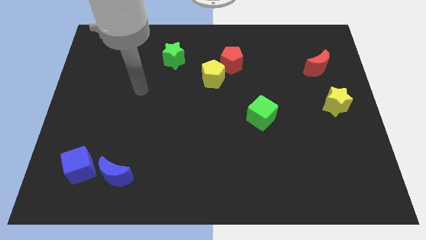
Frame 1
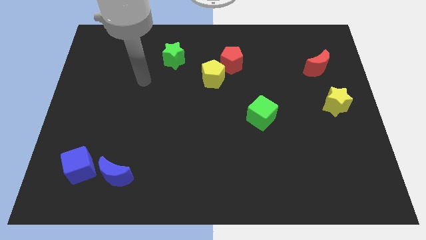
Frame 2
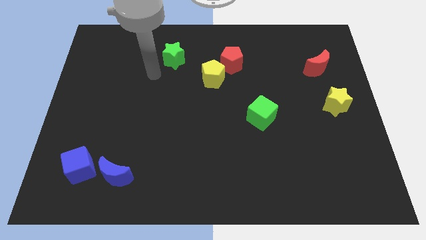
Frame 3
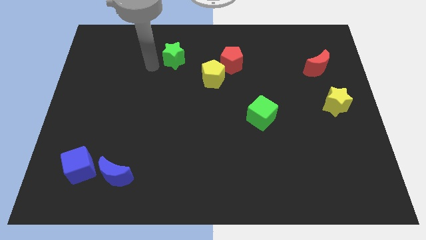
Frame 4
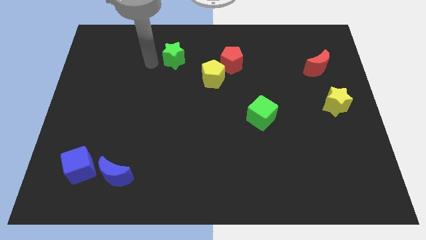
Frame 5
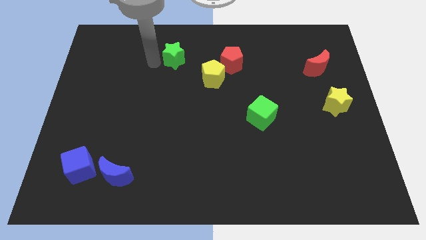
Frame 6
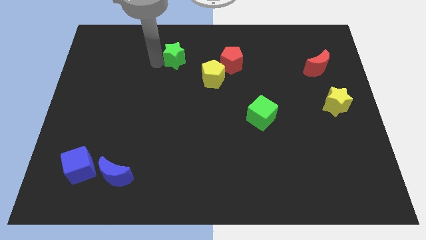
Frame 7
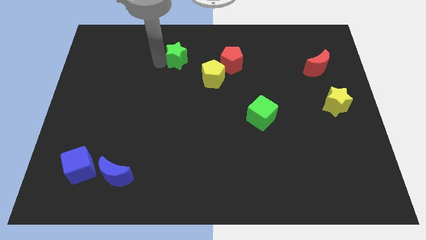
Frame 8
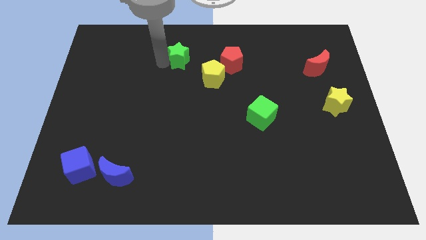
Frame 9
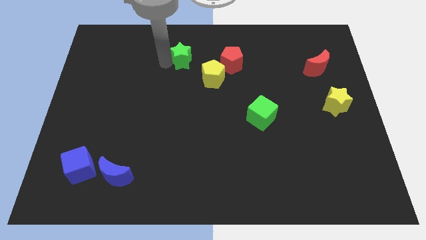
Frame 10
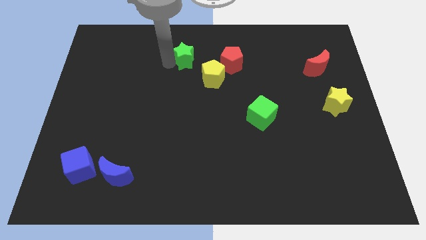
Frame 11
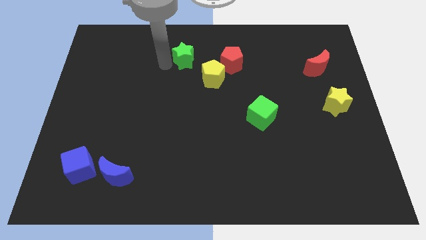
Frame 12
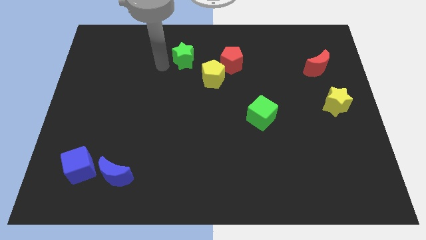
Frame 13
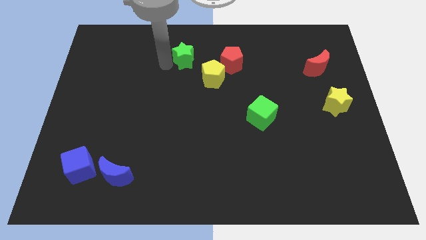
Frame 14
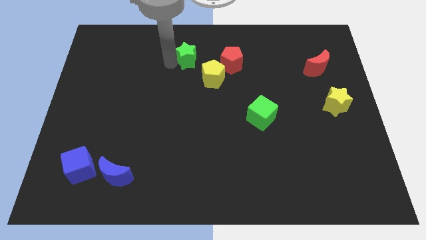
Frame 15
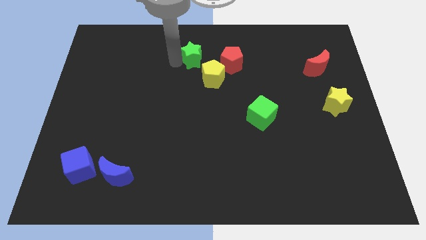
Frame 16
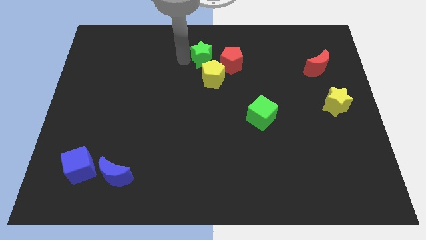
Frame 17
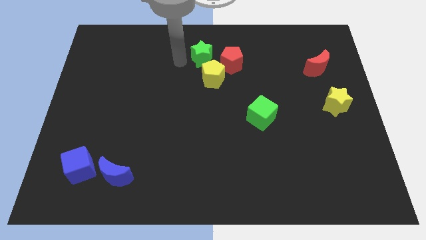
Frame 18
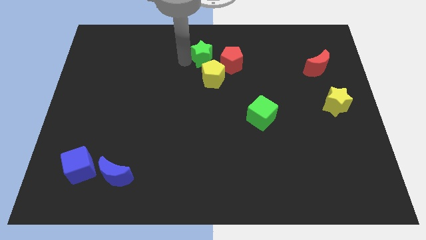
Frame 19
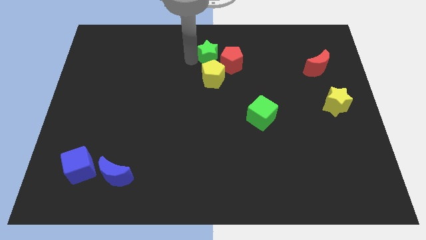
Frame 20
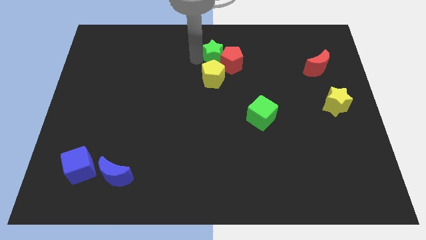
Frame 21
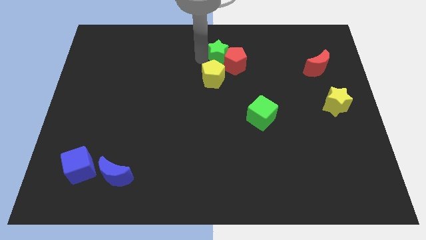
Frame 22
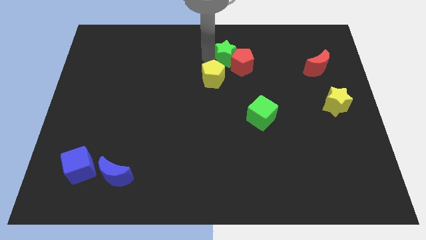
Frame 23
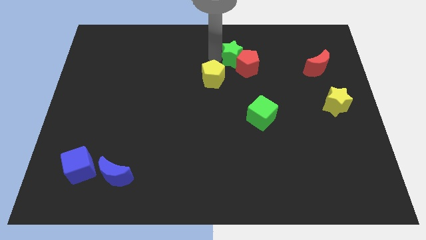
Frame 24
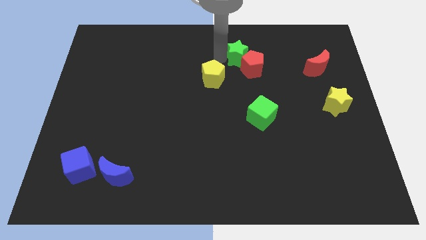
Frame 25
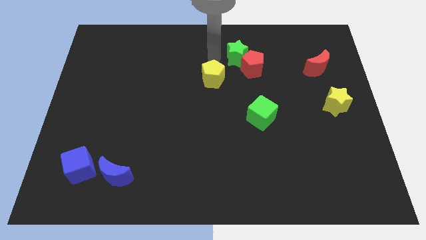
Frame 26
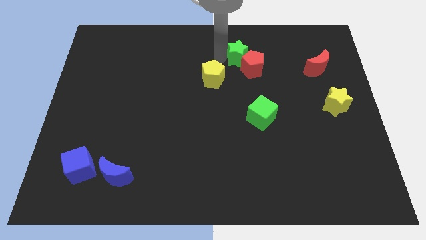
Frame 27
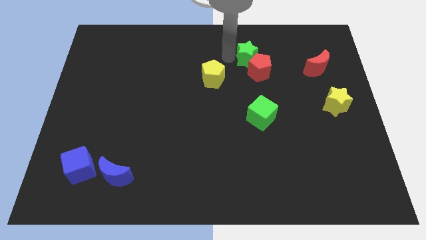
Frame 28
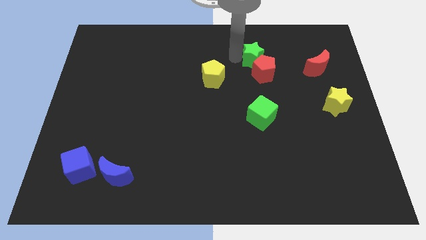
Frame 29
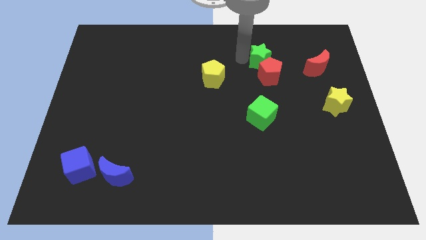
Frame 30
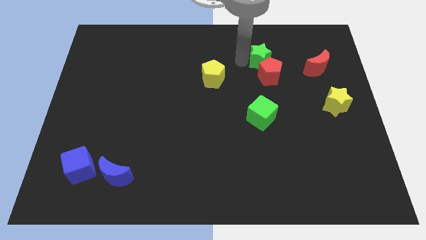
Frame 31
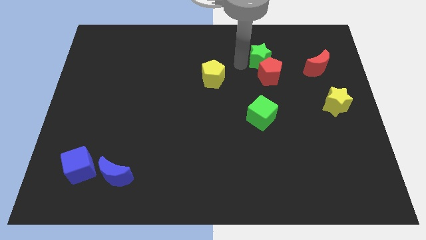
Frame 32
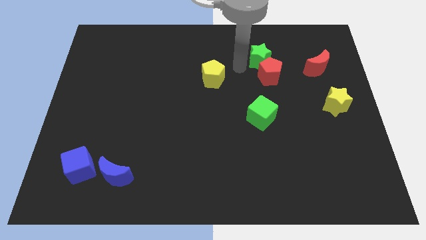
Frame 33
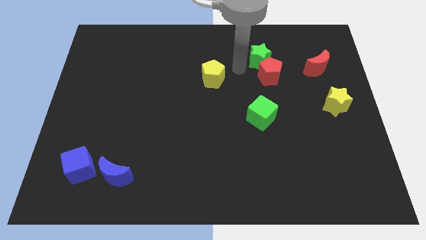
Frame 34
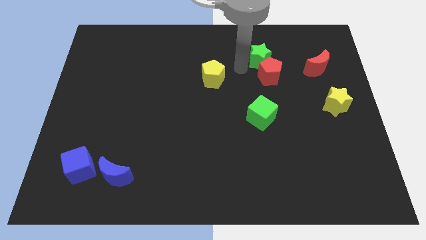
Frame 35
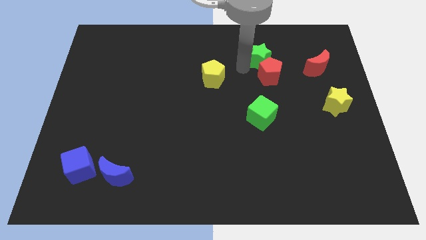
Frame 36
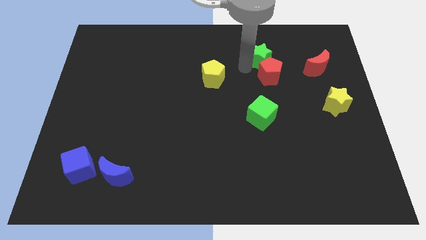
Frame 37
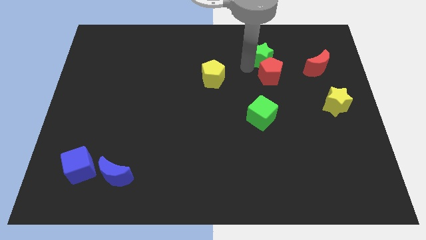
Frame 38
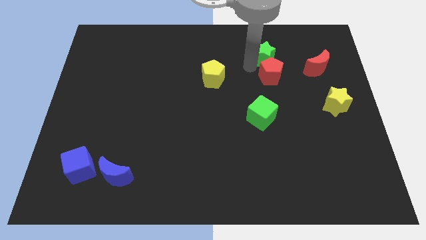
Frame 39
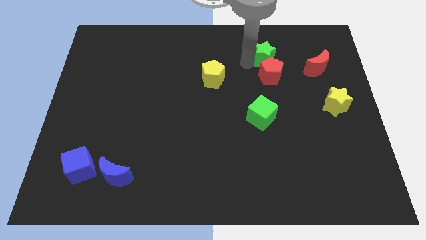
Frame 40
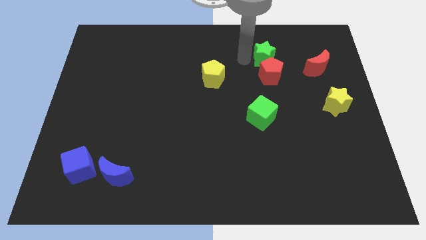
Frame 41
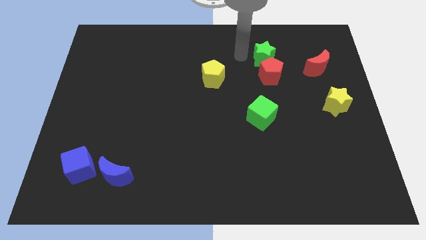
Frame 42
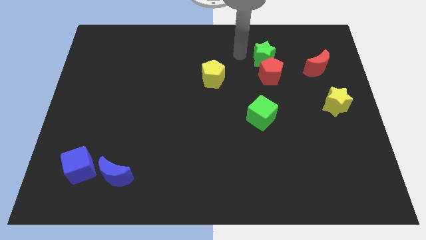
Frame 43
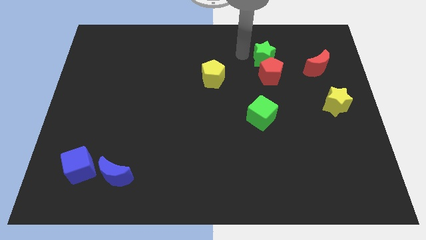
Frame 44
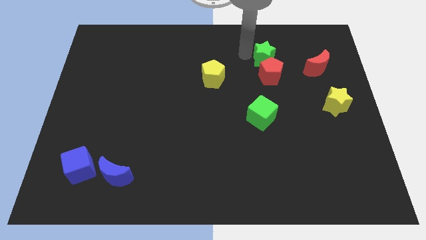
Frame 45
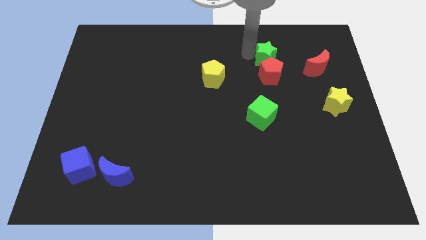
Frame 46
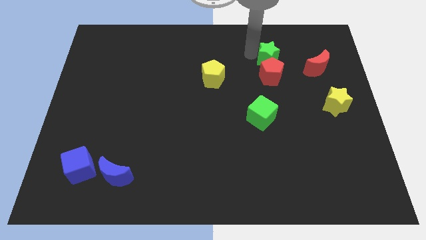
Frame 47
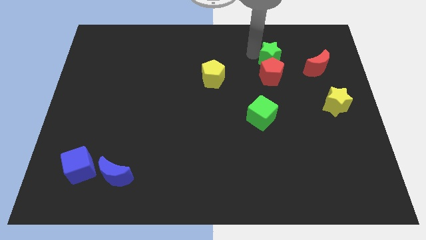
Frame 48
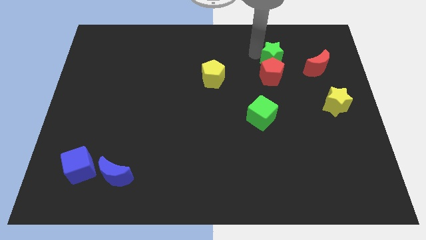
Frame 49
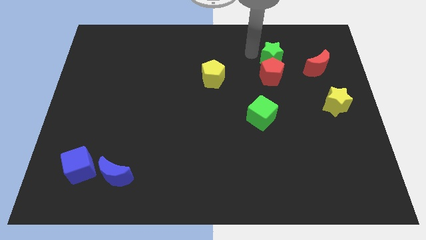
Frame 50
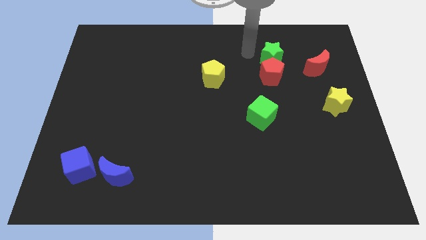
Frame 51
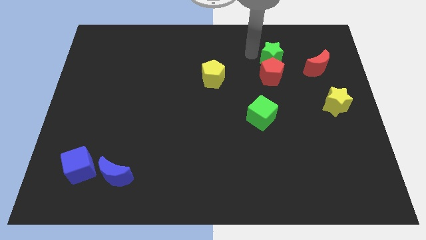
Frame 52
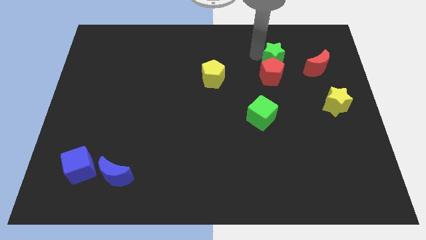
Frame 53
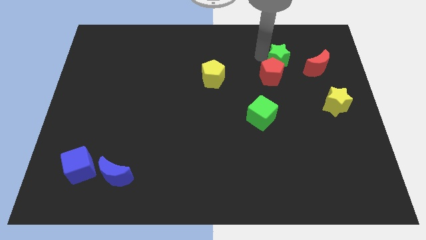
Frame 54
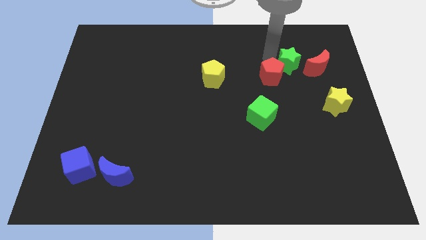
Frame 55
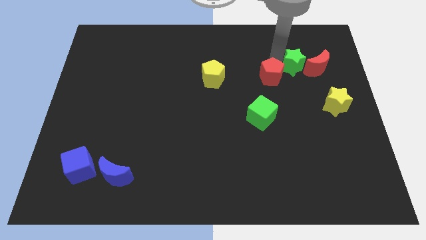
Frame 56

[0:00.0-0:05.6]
put the green star to the red moon

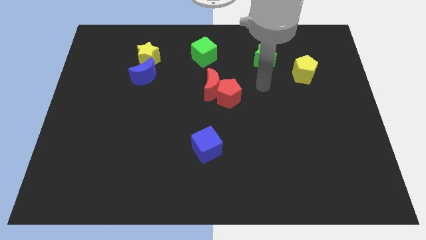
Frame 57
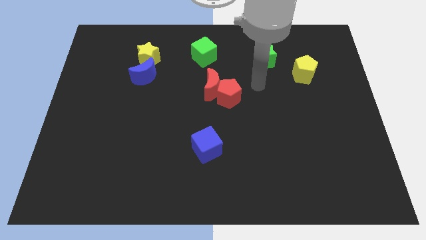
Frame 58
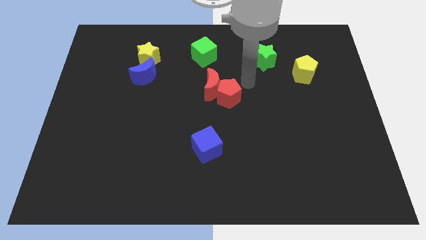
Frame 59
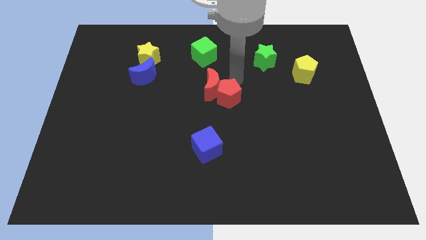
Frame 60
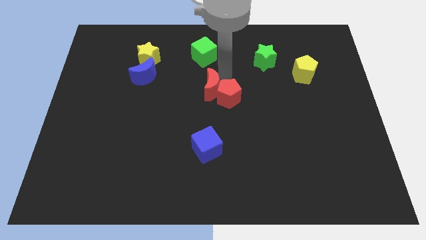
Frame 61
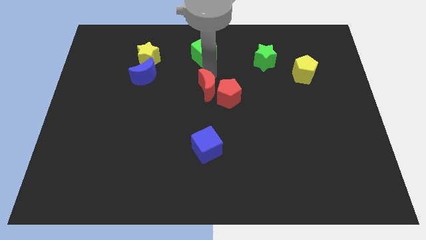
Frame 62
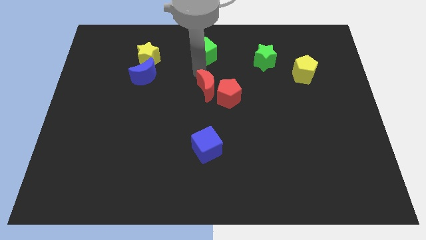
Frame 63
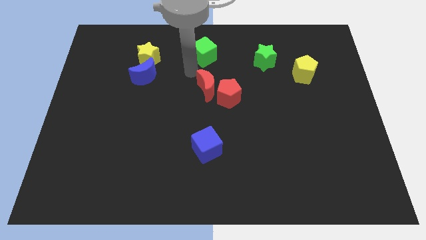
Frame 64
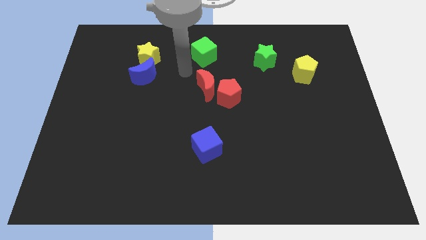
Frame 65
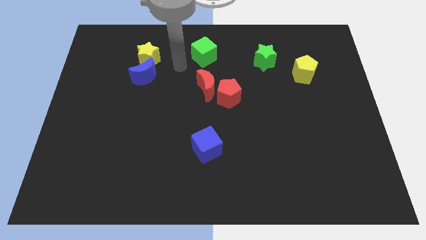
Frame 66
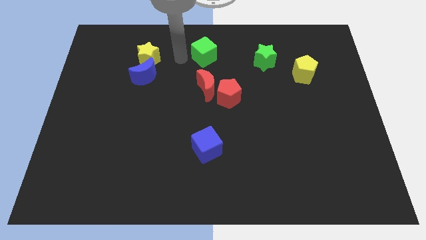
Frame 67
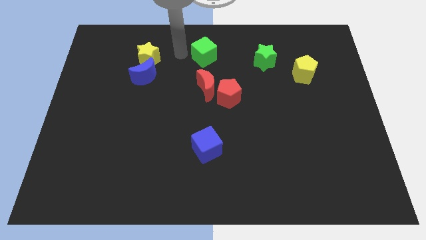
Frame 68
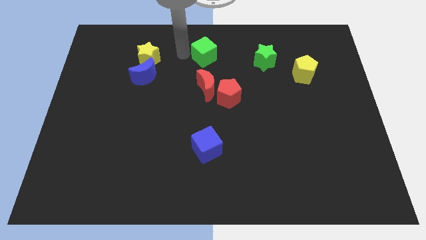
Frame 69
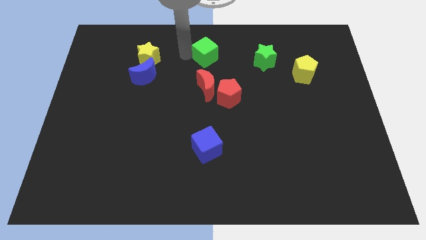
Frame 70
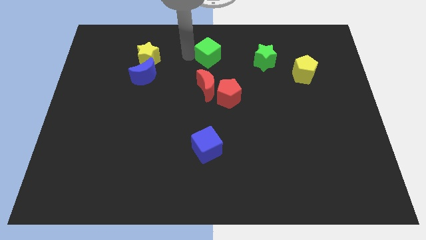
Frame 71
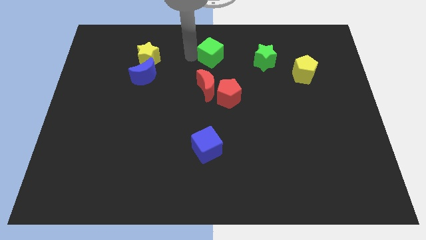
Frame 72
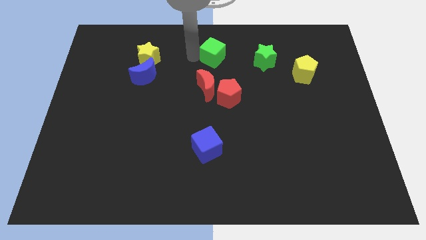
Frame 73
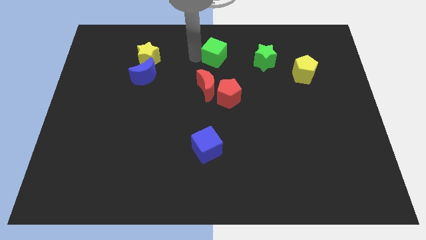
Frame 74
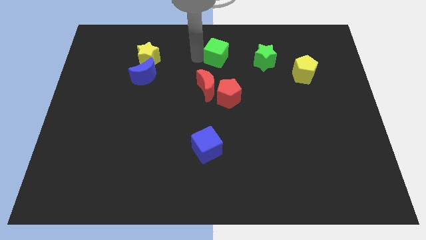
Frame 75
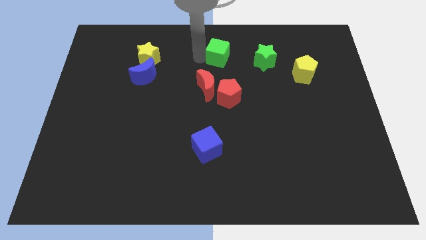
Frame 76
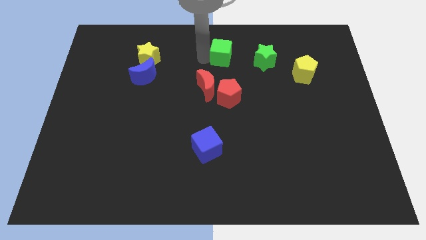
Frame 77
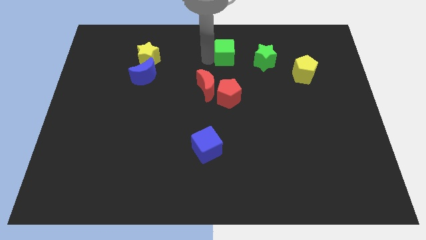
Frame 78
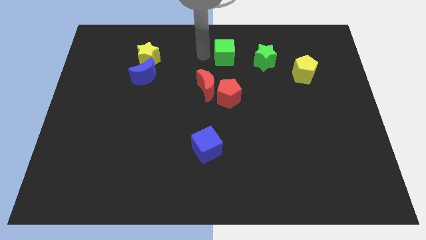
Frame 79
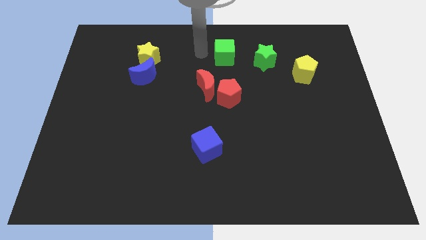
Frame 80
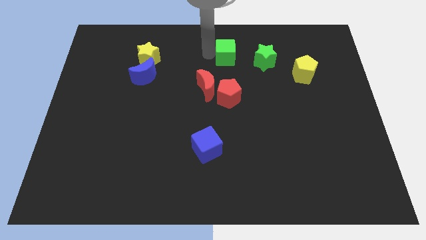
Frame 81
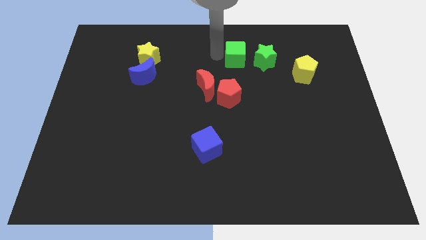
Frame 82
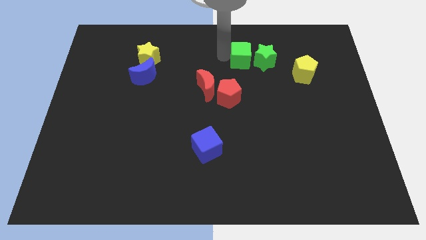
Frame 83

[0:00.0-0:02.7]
move the green cube close to the green star
